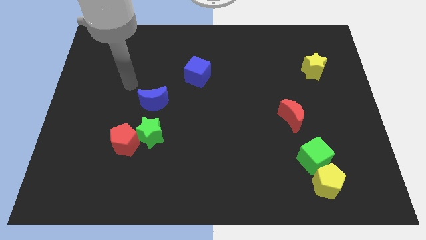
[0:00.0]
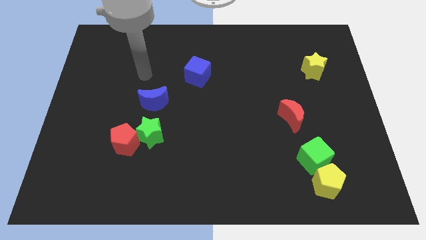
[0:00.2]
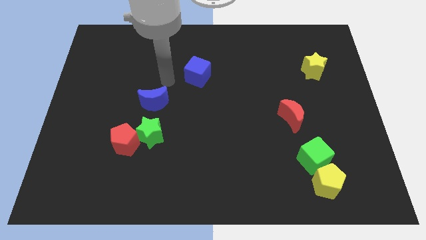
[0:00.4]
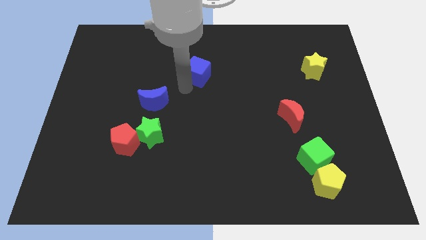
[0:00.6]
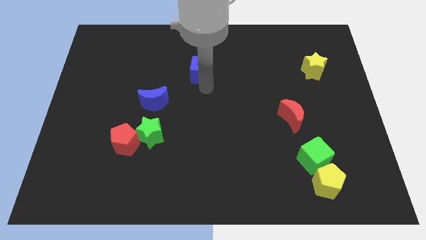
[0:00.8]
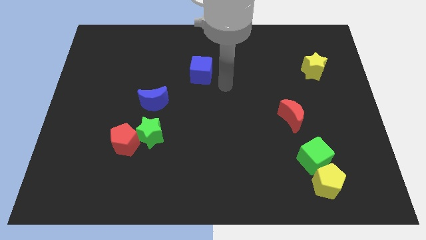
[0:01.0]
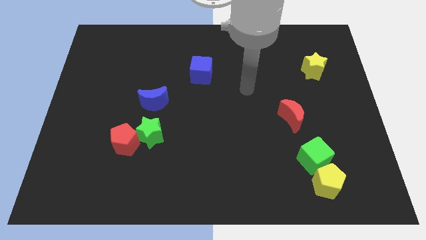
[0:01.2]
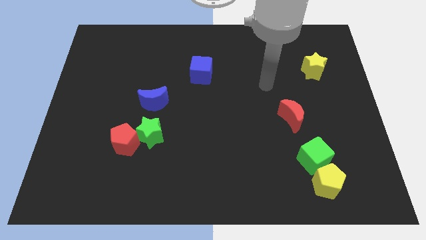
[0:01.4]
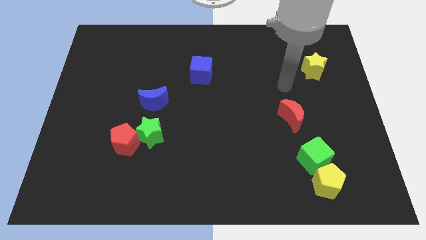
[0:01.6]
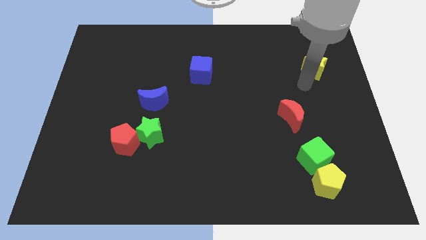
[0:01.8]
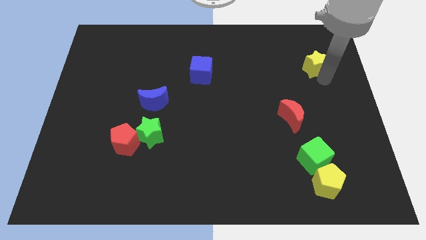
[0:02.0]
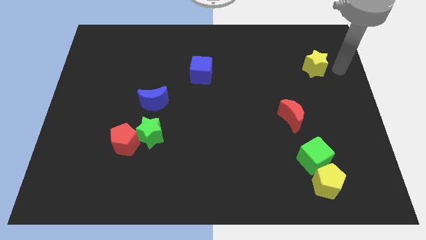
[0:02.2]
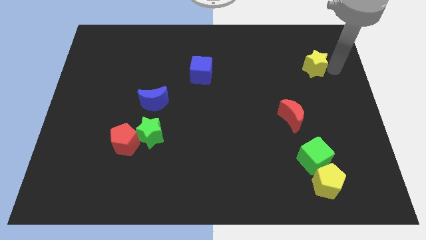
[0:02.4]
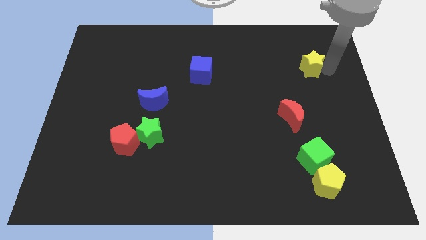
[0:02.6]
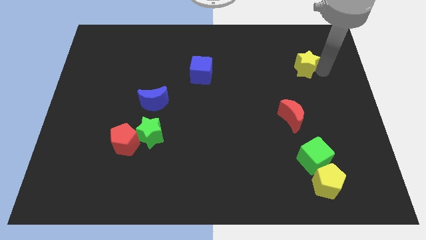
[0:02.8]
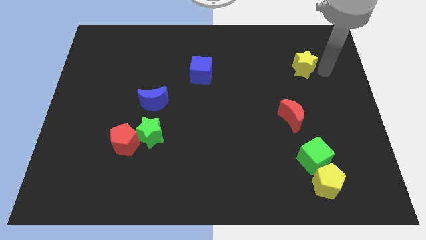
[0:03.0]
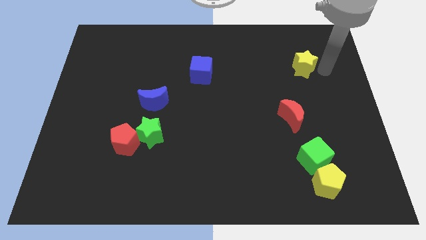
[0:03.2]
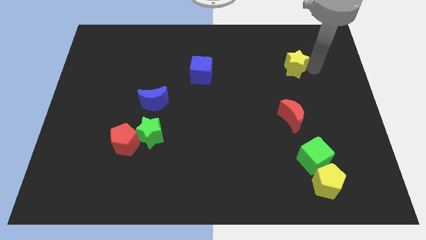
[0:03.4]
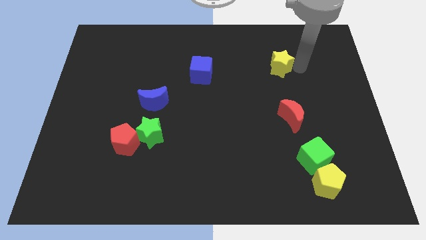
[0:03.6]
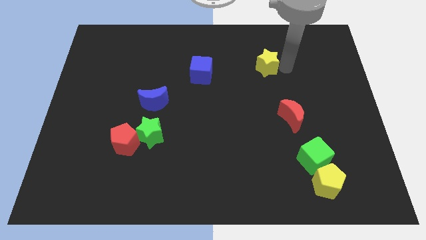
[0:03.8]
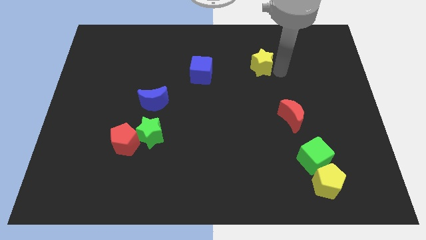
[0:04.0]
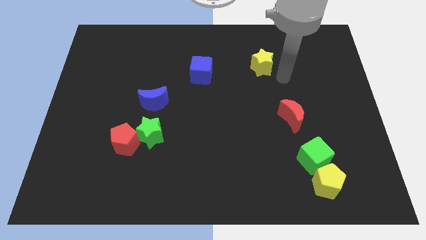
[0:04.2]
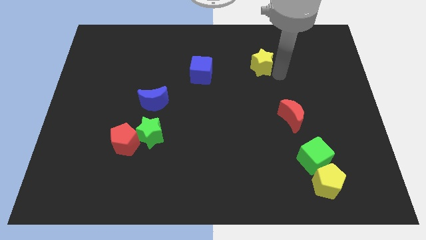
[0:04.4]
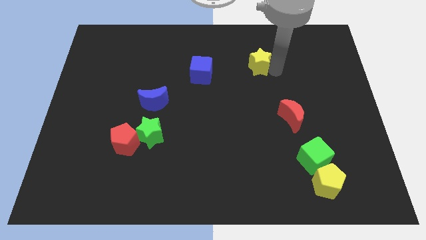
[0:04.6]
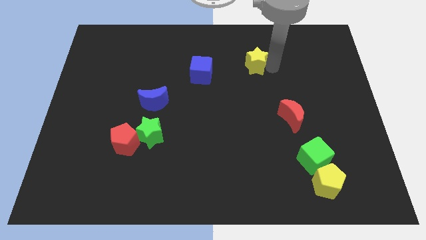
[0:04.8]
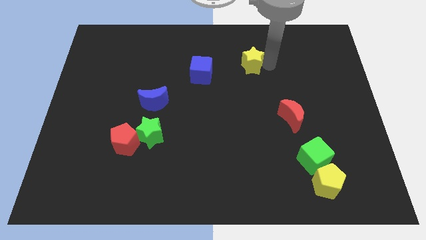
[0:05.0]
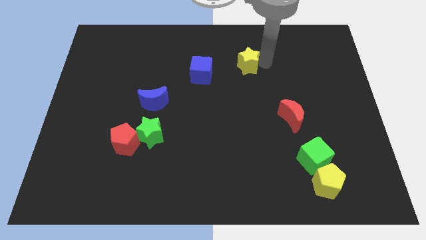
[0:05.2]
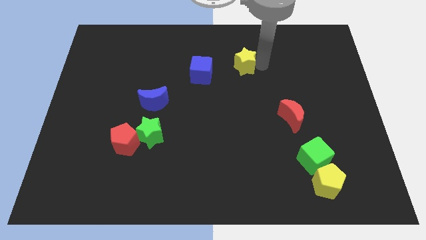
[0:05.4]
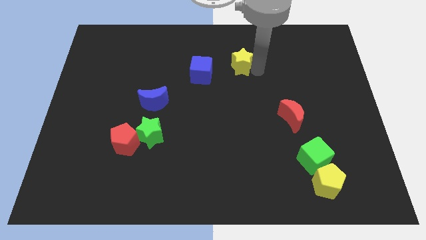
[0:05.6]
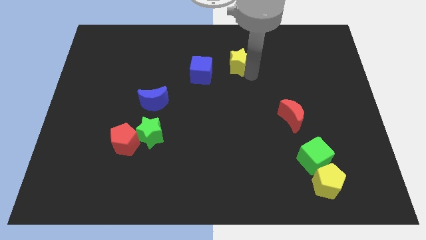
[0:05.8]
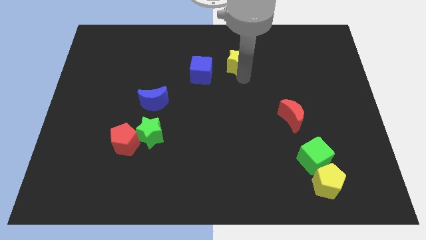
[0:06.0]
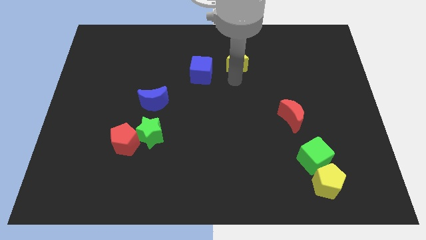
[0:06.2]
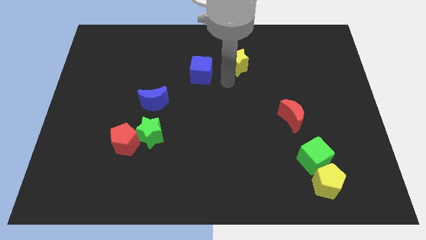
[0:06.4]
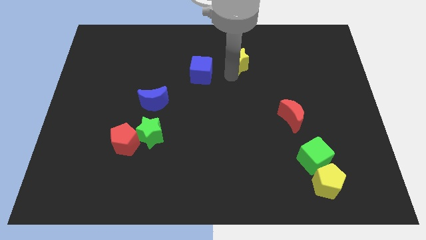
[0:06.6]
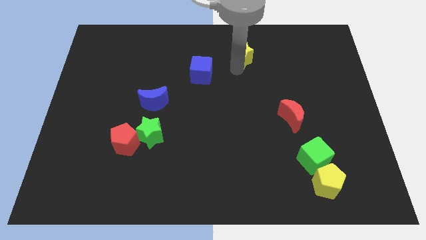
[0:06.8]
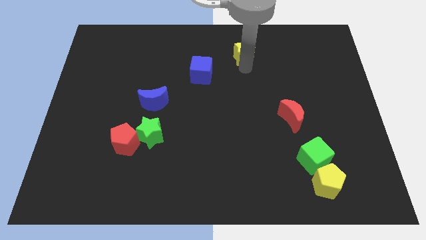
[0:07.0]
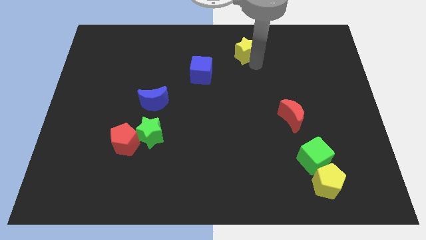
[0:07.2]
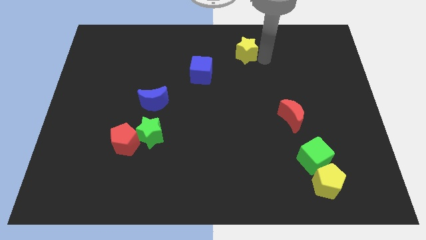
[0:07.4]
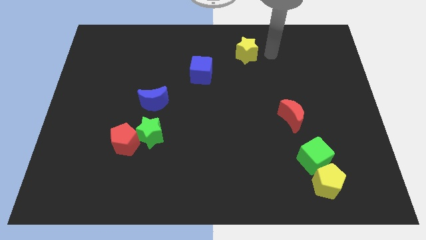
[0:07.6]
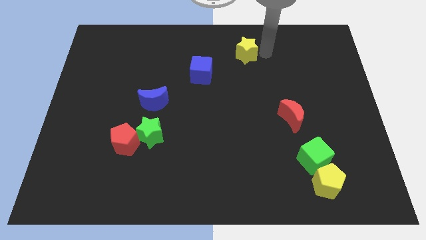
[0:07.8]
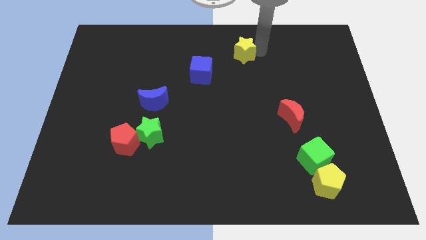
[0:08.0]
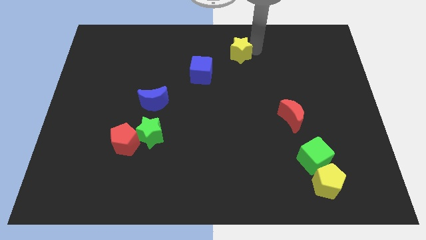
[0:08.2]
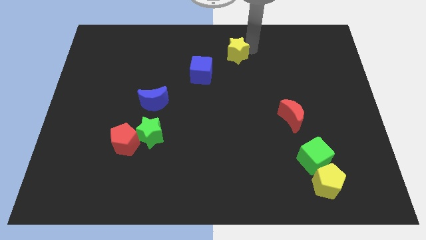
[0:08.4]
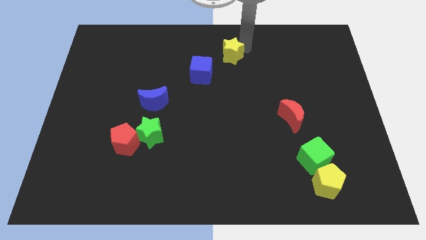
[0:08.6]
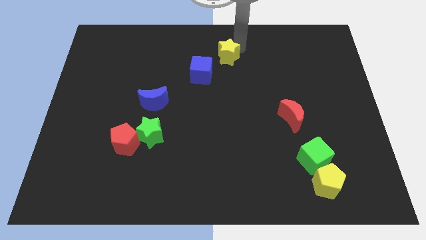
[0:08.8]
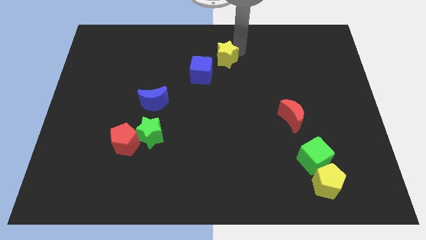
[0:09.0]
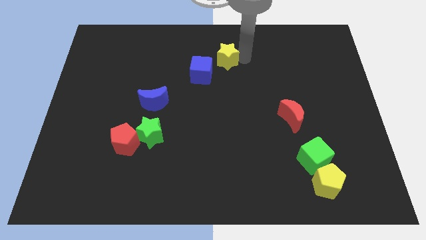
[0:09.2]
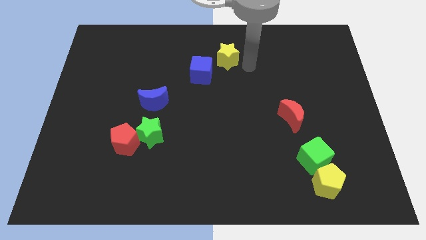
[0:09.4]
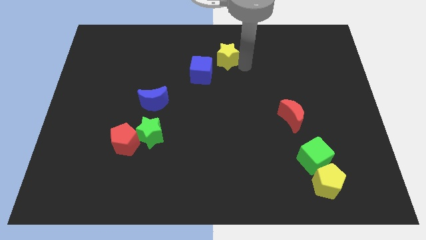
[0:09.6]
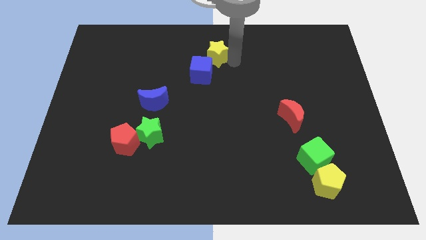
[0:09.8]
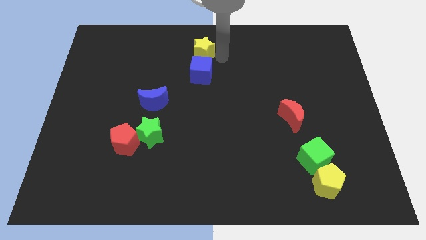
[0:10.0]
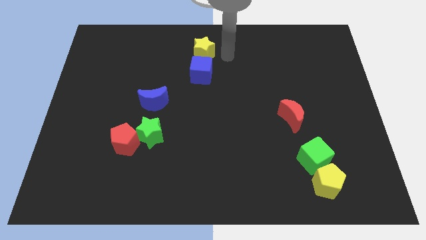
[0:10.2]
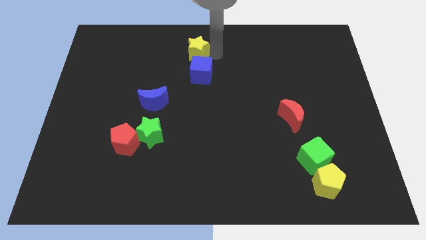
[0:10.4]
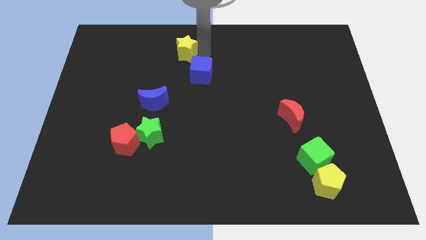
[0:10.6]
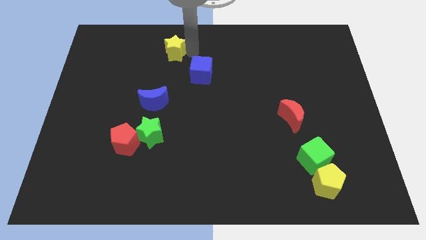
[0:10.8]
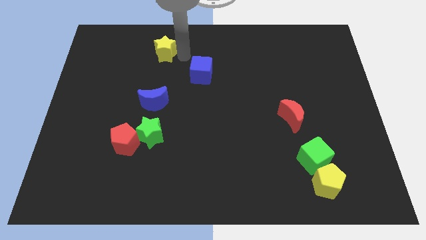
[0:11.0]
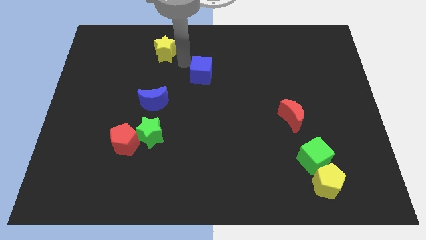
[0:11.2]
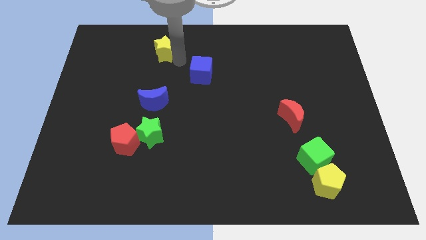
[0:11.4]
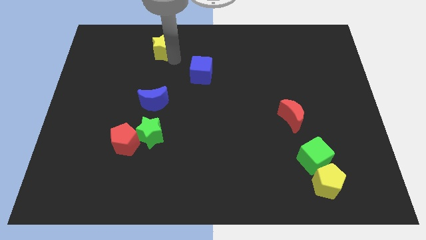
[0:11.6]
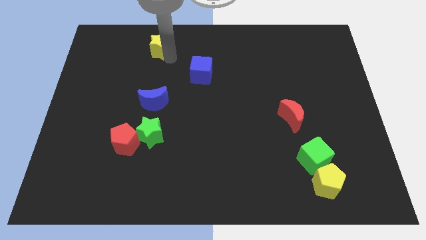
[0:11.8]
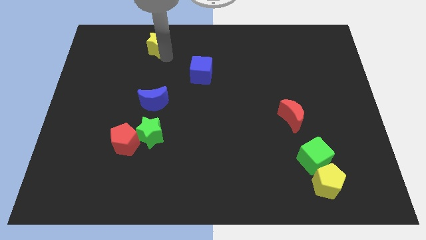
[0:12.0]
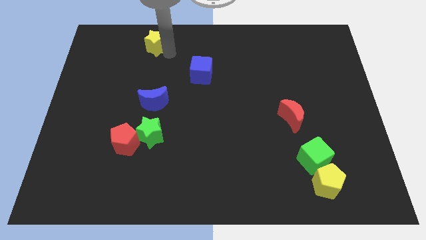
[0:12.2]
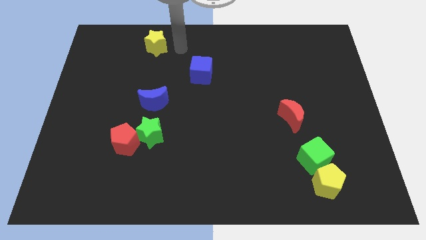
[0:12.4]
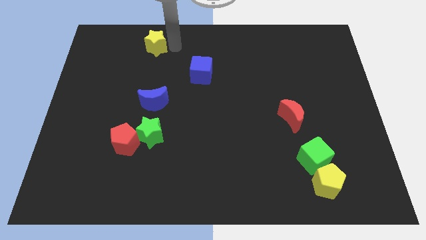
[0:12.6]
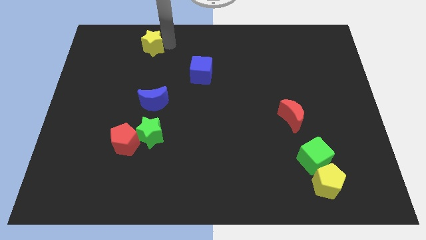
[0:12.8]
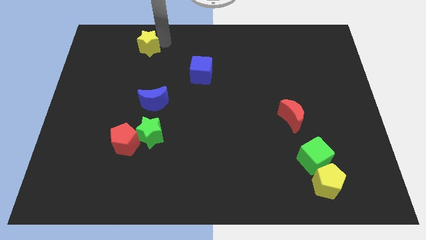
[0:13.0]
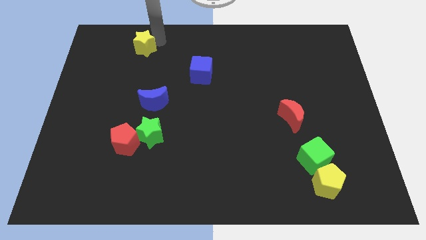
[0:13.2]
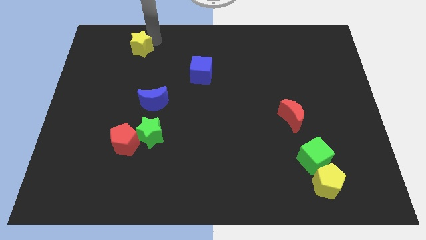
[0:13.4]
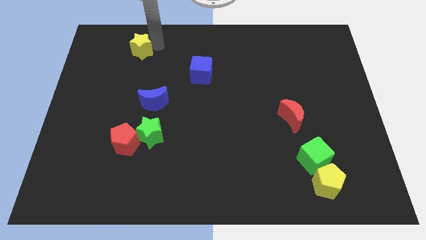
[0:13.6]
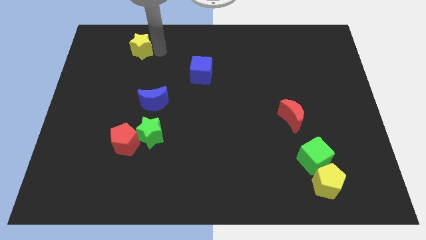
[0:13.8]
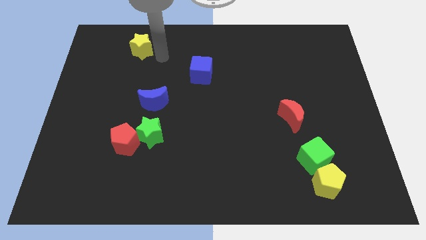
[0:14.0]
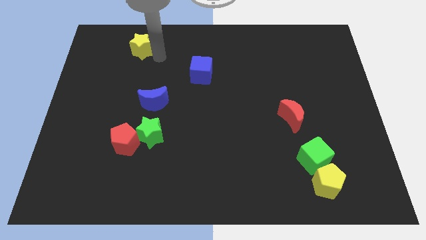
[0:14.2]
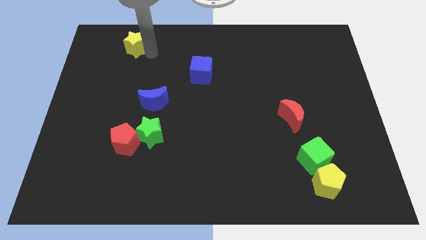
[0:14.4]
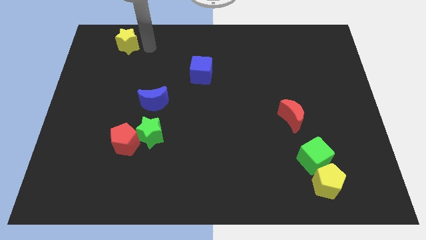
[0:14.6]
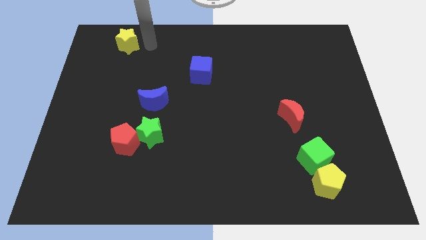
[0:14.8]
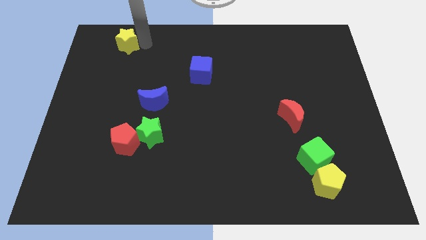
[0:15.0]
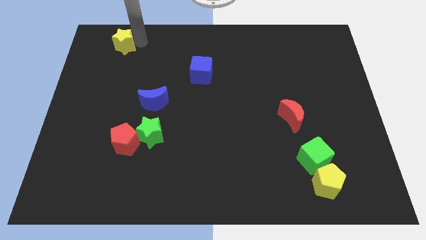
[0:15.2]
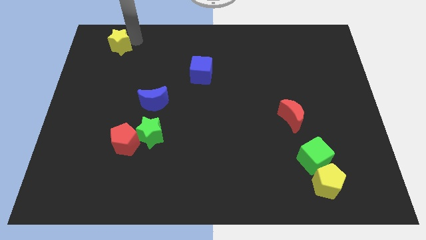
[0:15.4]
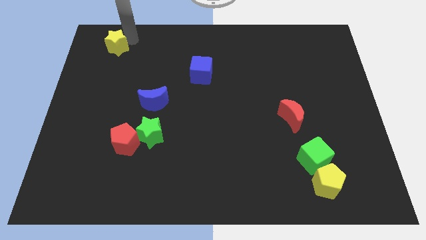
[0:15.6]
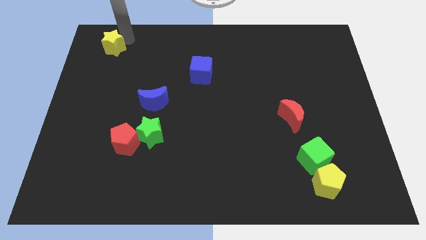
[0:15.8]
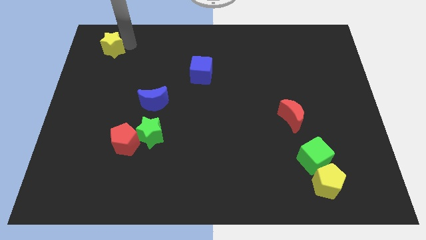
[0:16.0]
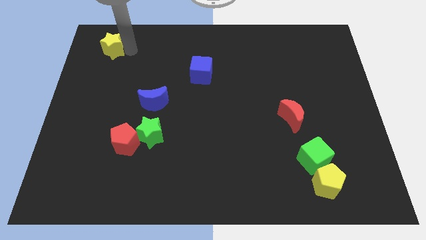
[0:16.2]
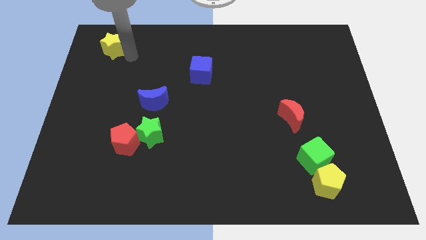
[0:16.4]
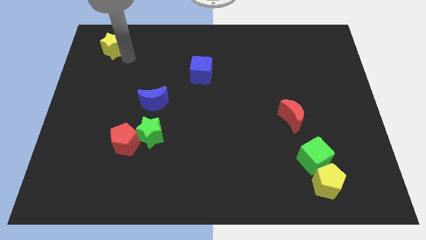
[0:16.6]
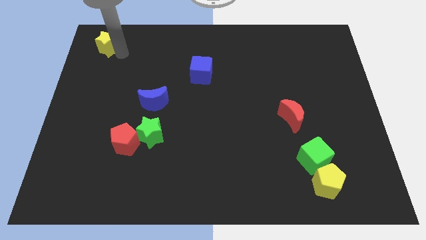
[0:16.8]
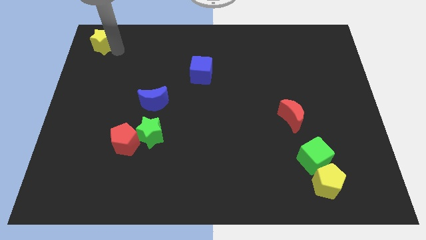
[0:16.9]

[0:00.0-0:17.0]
move the yellow star to the top left
